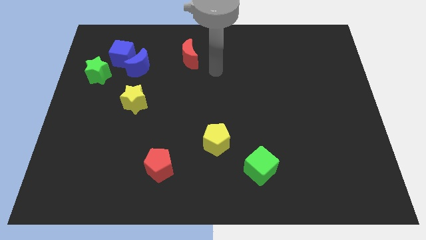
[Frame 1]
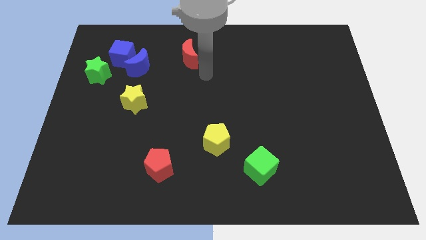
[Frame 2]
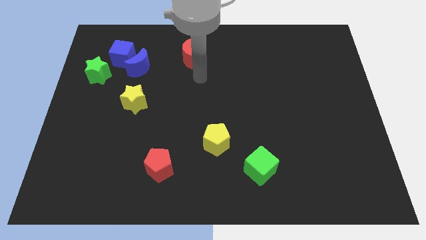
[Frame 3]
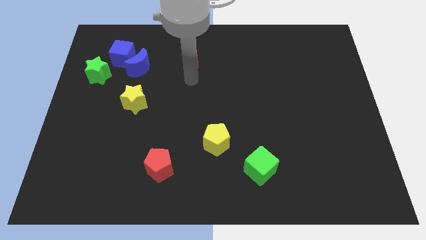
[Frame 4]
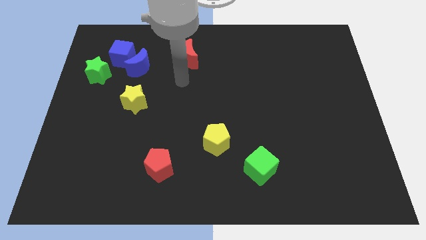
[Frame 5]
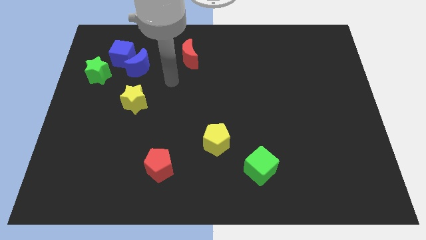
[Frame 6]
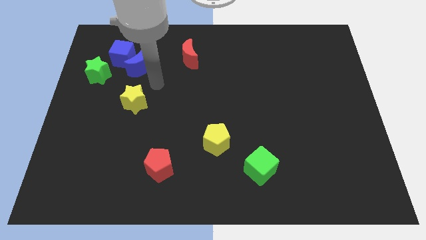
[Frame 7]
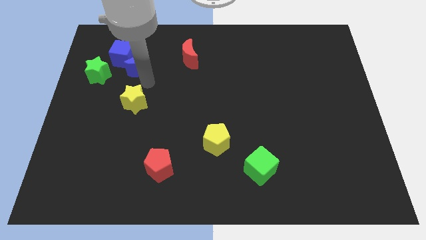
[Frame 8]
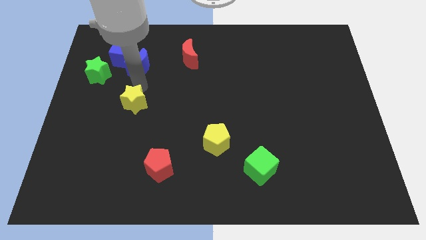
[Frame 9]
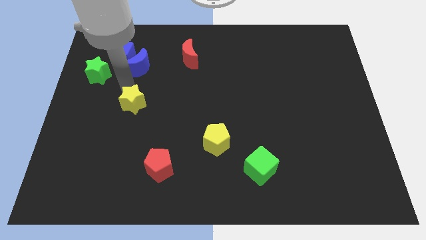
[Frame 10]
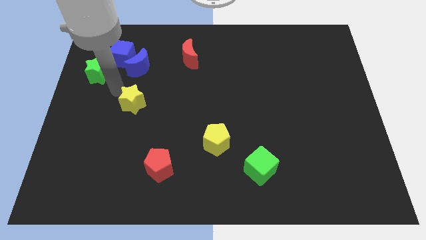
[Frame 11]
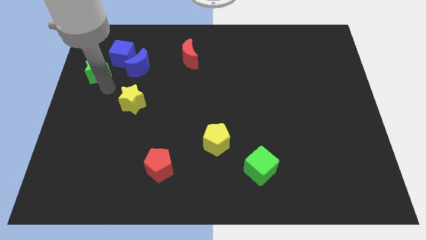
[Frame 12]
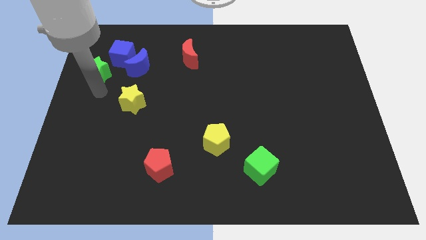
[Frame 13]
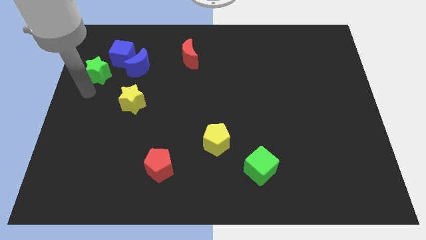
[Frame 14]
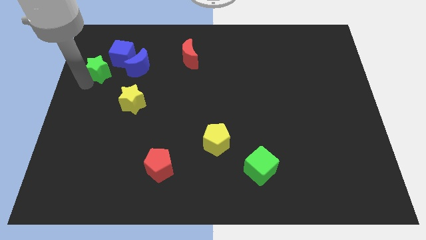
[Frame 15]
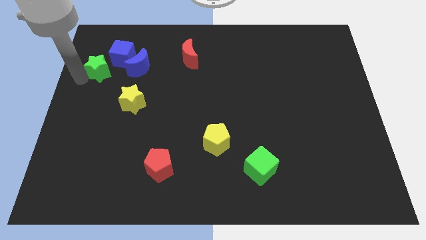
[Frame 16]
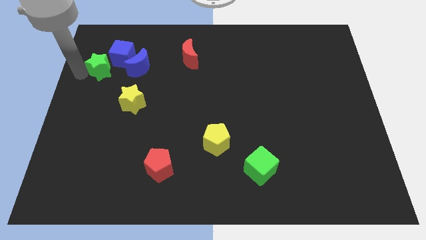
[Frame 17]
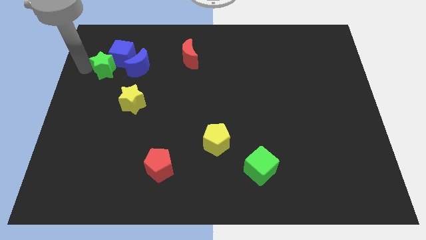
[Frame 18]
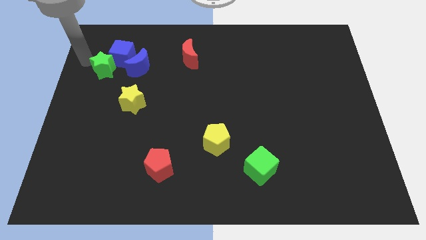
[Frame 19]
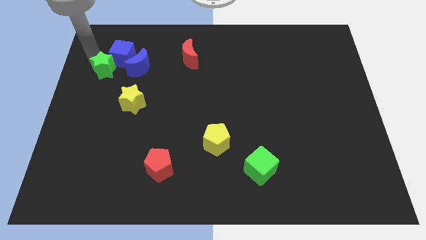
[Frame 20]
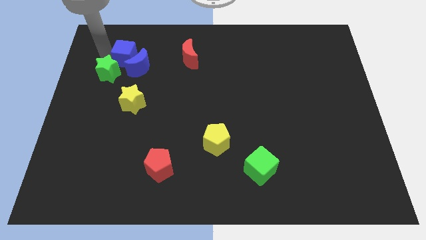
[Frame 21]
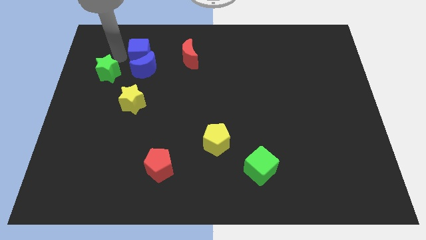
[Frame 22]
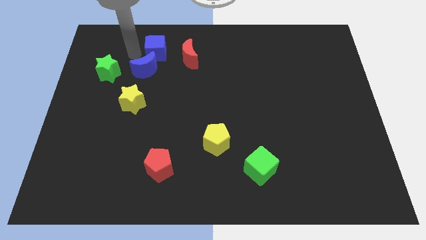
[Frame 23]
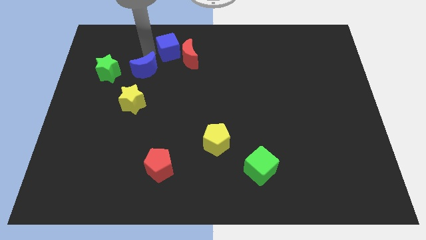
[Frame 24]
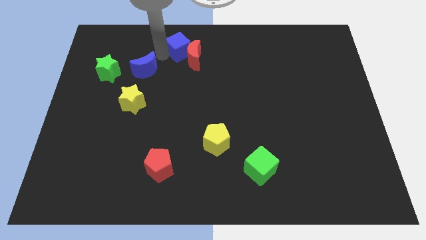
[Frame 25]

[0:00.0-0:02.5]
pull the blue moon apart from the blue cube

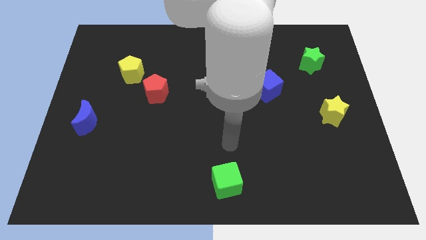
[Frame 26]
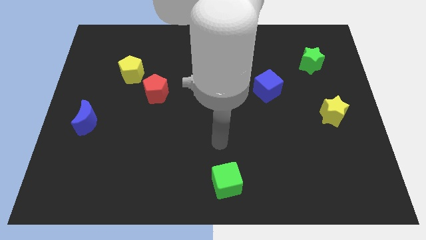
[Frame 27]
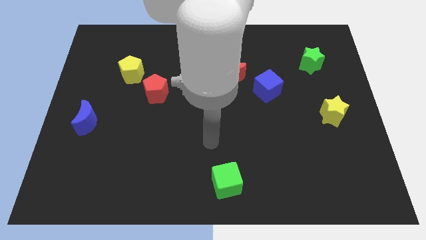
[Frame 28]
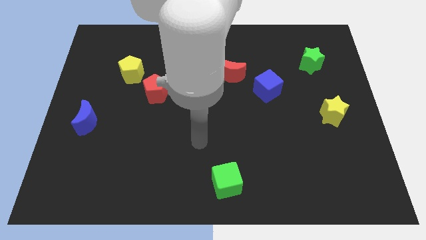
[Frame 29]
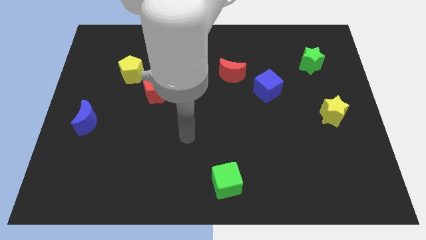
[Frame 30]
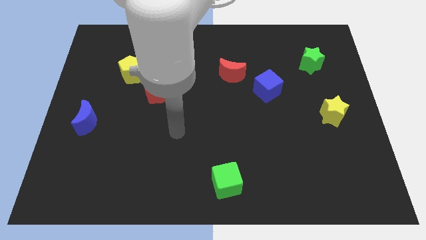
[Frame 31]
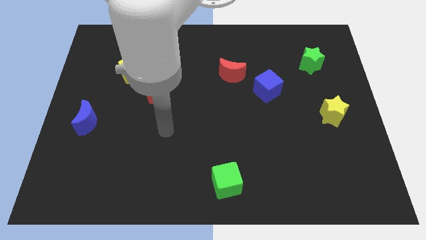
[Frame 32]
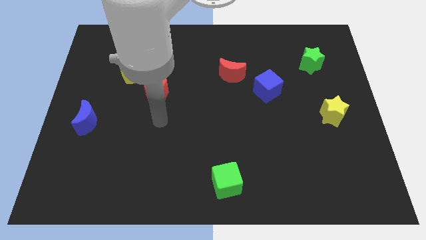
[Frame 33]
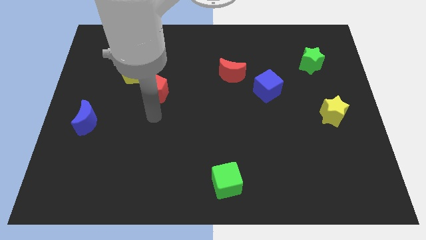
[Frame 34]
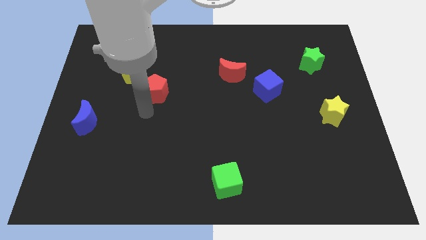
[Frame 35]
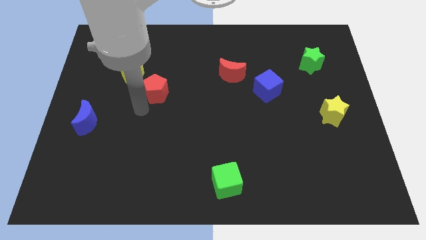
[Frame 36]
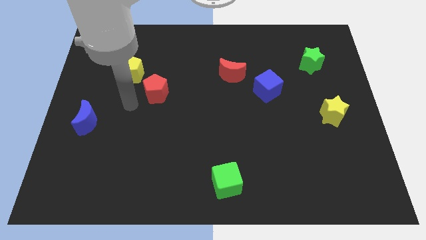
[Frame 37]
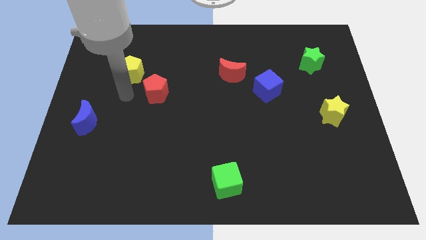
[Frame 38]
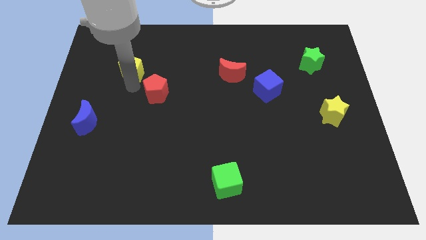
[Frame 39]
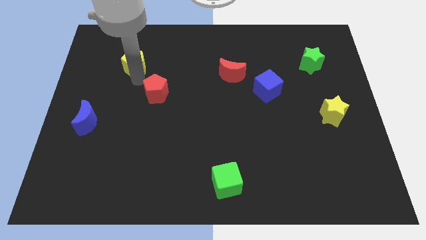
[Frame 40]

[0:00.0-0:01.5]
pull the red pentagon apart from the yellow pentagon

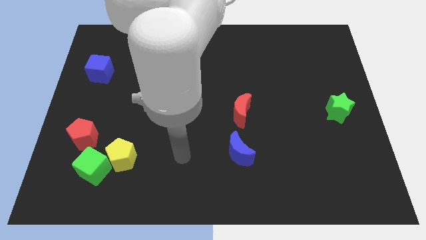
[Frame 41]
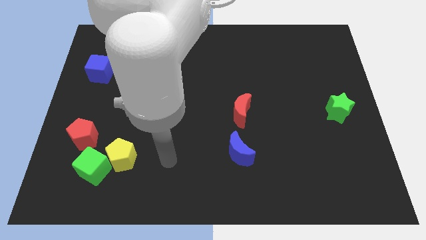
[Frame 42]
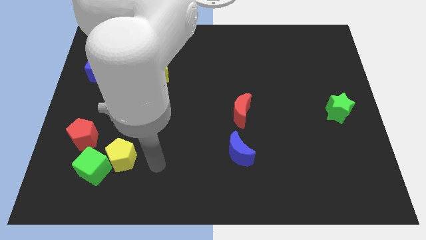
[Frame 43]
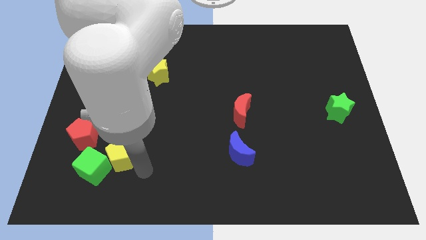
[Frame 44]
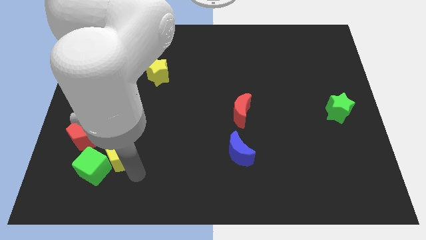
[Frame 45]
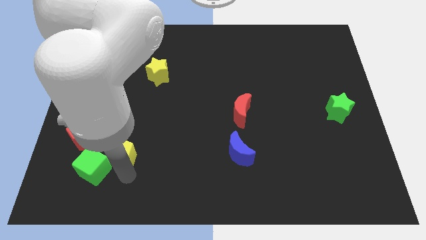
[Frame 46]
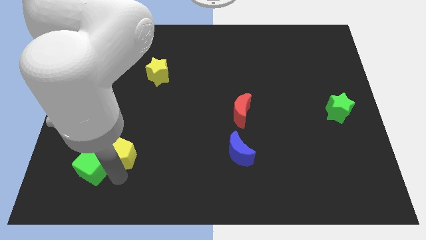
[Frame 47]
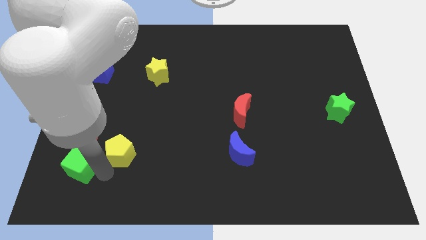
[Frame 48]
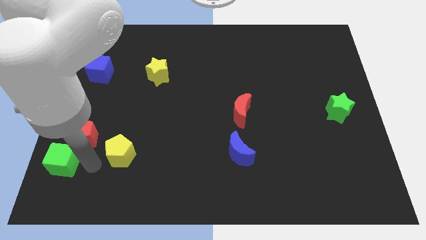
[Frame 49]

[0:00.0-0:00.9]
move the yellow pentagon away from the green cube

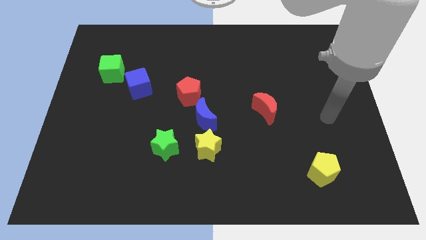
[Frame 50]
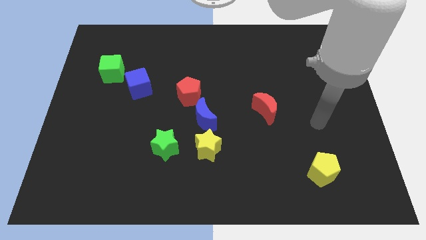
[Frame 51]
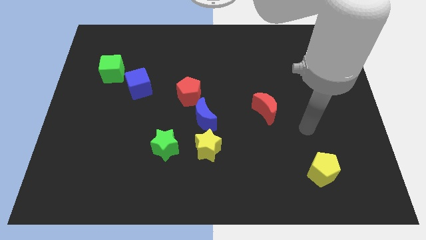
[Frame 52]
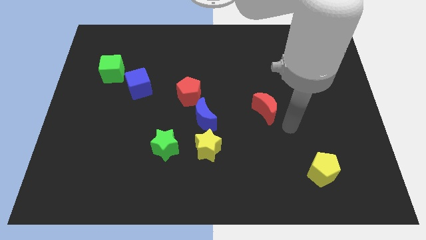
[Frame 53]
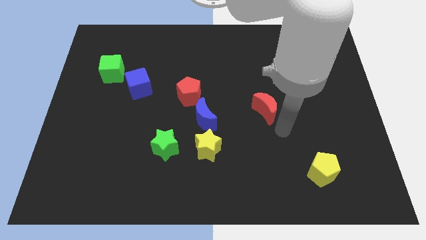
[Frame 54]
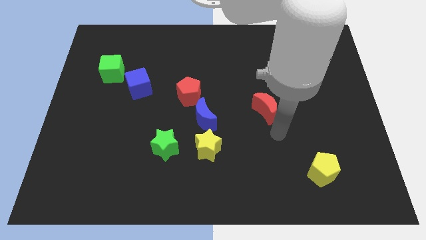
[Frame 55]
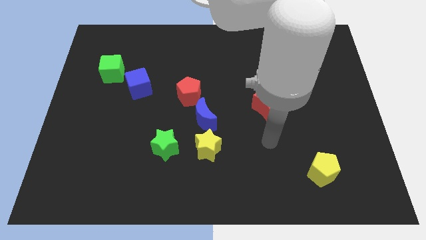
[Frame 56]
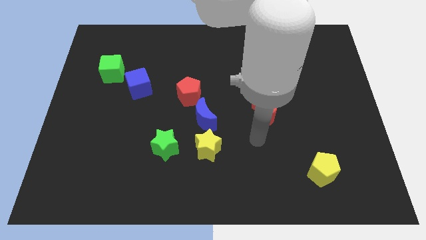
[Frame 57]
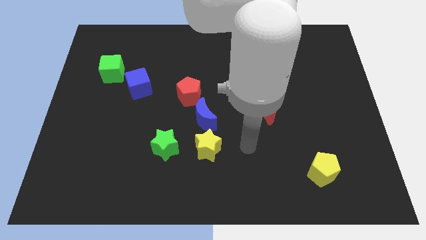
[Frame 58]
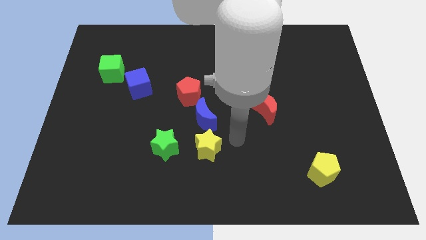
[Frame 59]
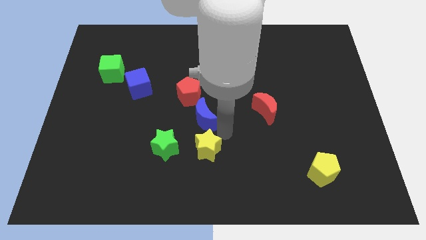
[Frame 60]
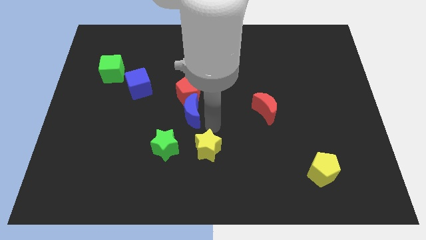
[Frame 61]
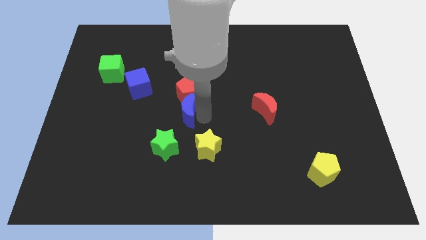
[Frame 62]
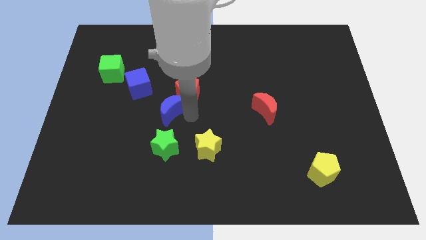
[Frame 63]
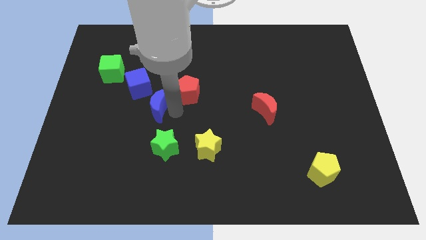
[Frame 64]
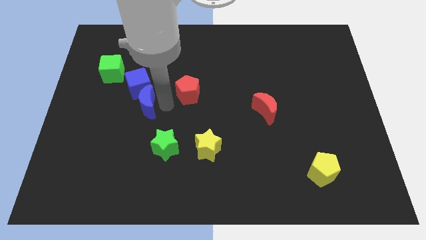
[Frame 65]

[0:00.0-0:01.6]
separate the red pentagon from the blue moon

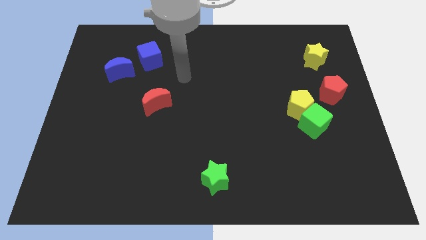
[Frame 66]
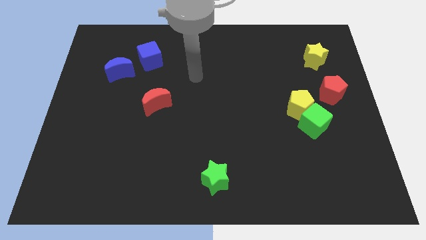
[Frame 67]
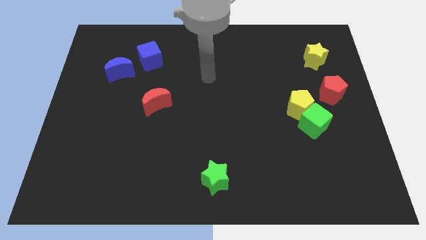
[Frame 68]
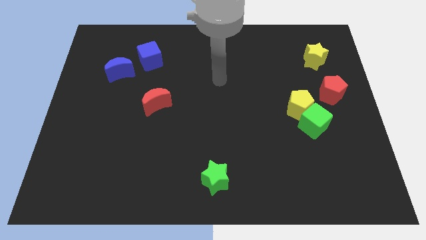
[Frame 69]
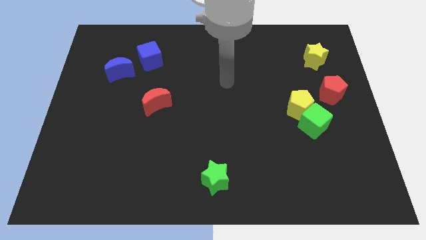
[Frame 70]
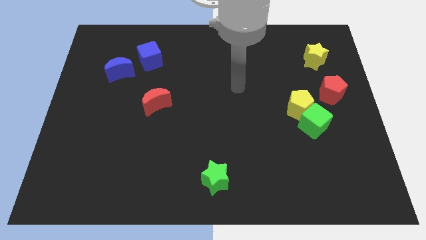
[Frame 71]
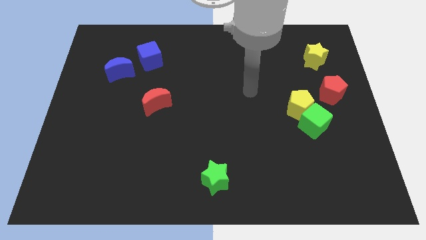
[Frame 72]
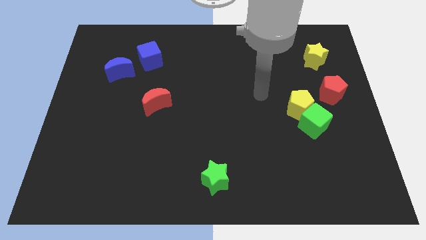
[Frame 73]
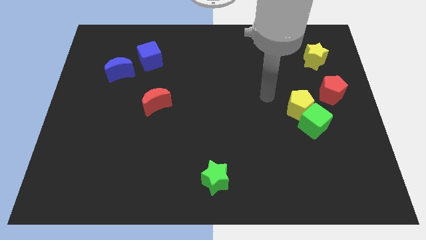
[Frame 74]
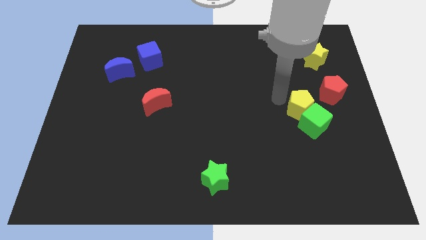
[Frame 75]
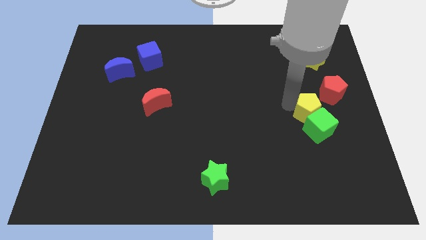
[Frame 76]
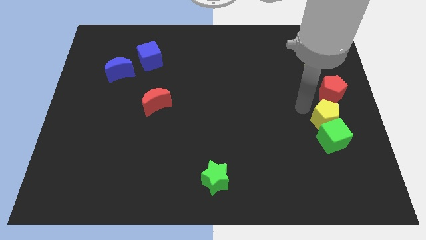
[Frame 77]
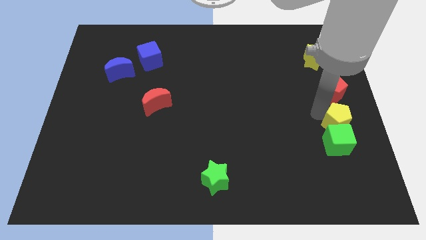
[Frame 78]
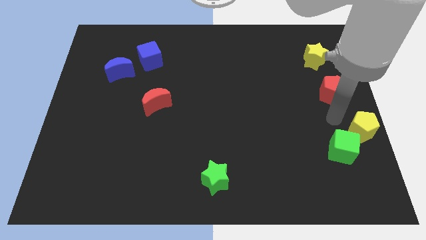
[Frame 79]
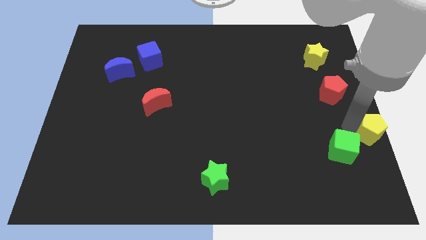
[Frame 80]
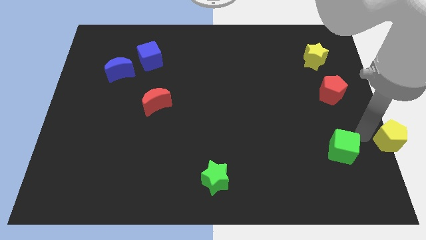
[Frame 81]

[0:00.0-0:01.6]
pull the green cube apart from the yellow pentagon

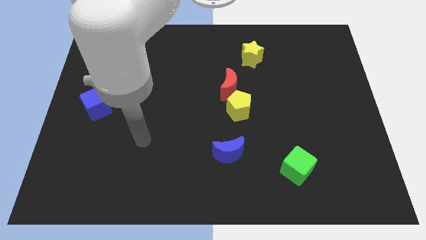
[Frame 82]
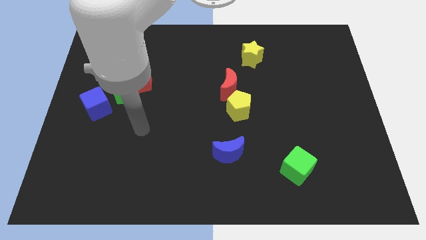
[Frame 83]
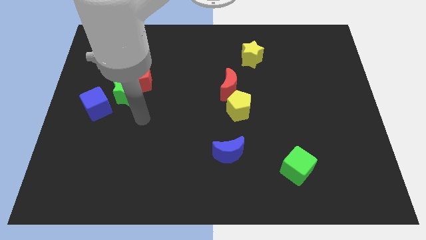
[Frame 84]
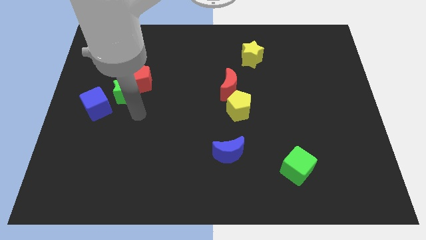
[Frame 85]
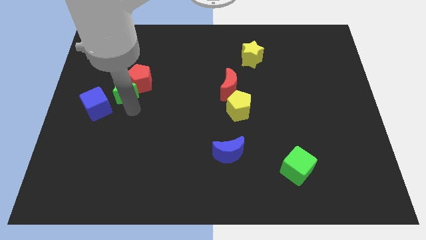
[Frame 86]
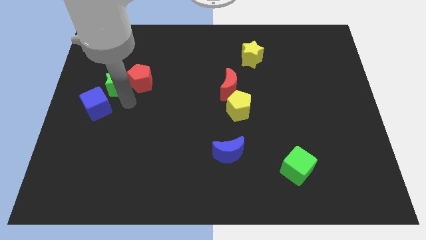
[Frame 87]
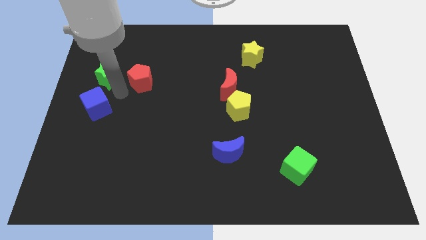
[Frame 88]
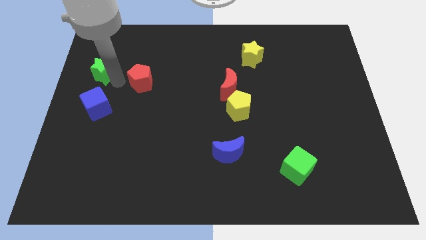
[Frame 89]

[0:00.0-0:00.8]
separate the red pentagon from the green star

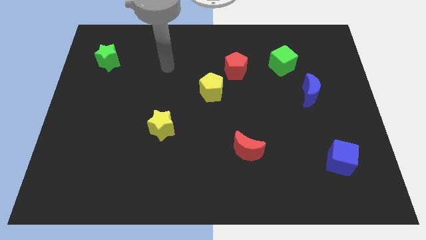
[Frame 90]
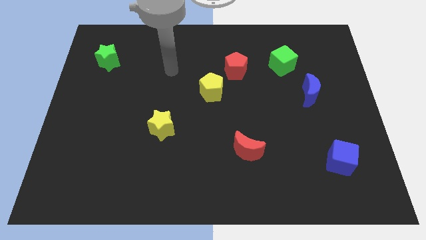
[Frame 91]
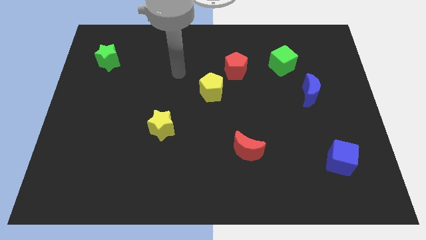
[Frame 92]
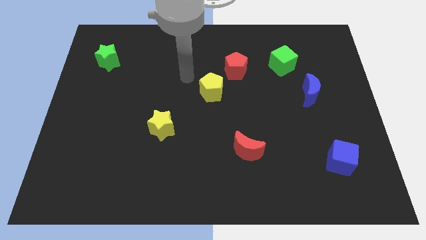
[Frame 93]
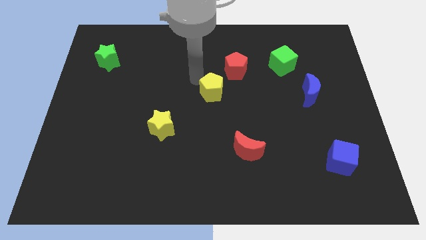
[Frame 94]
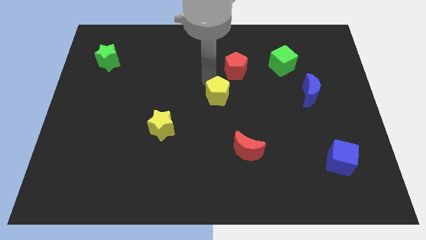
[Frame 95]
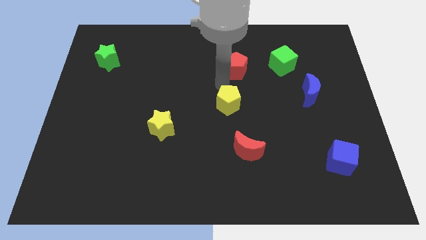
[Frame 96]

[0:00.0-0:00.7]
move the red pentagon away from the yellow pentagon
